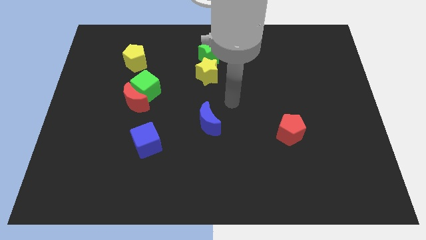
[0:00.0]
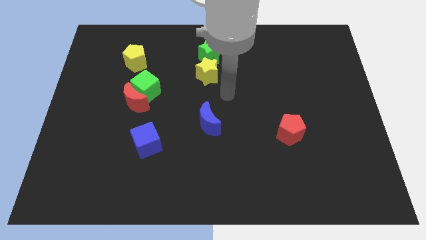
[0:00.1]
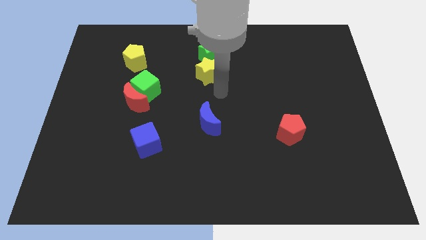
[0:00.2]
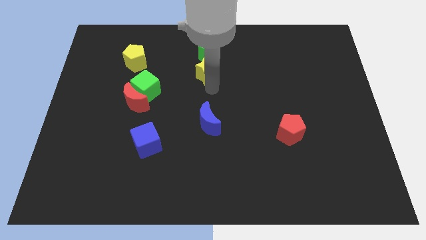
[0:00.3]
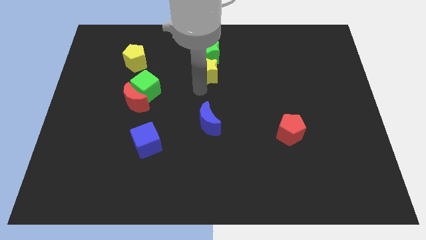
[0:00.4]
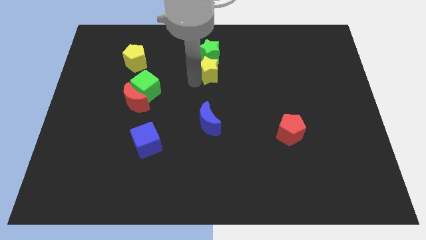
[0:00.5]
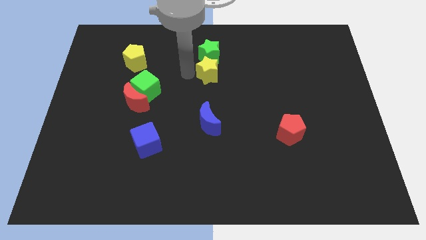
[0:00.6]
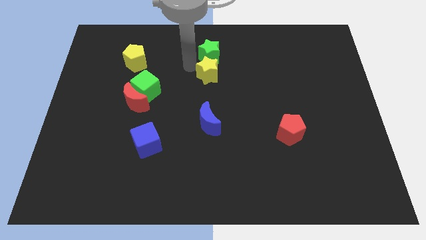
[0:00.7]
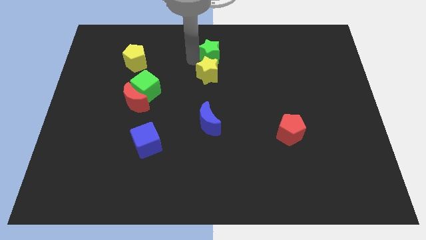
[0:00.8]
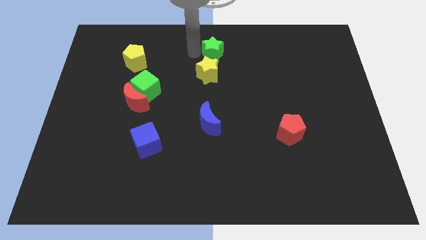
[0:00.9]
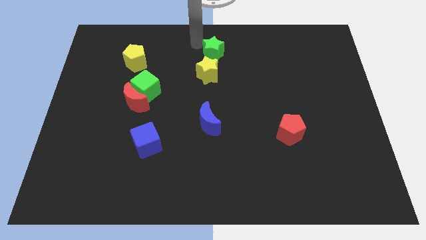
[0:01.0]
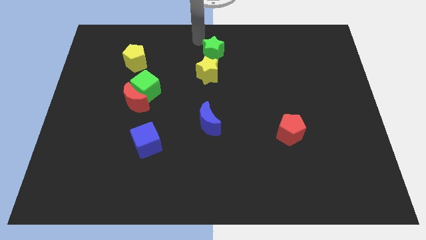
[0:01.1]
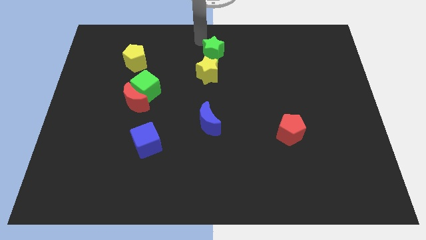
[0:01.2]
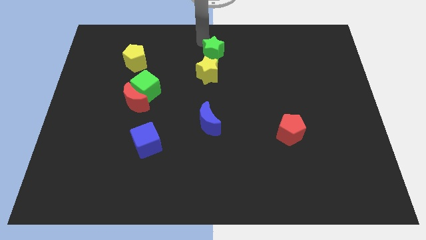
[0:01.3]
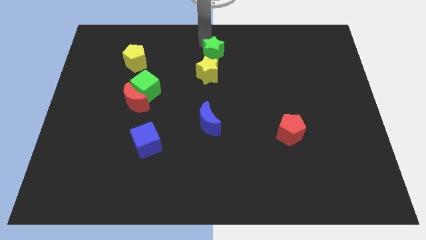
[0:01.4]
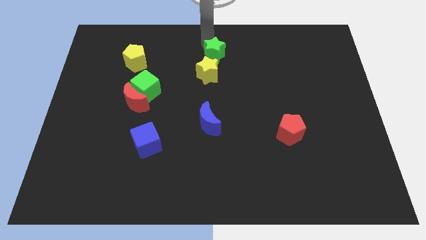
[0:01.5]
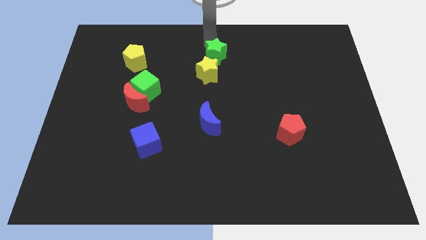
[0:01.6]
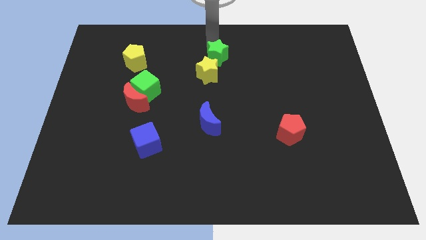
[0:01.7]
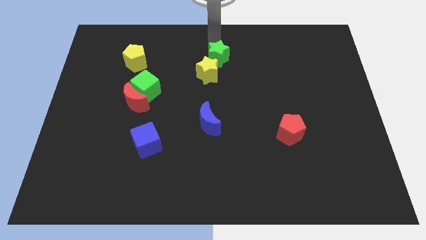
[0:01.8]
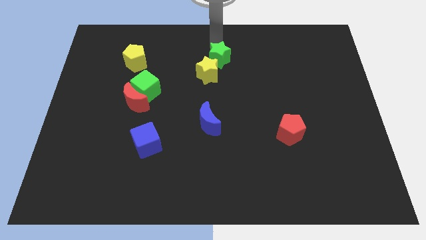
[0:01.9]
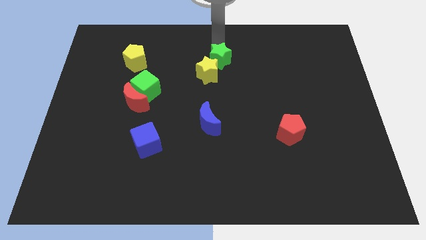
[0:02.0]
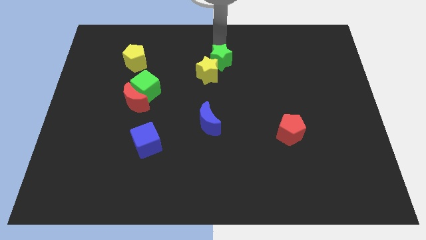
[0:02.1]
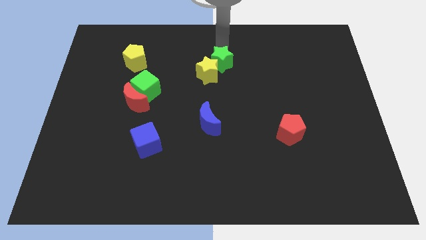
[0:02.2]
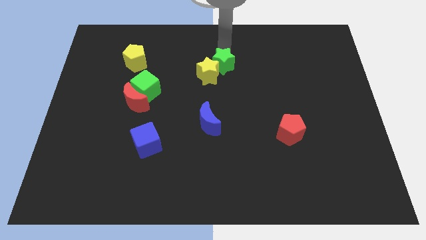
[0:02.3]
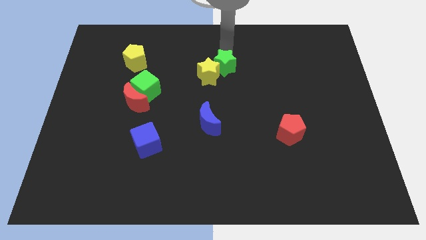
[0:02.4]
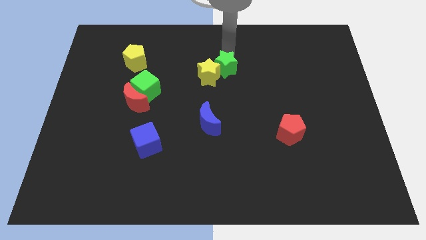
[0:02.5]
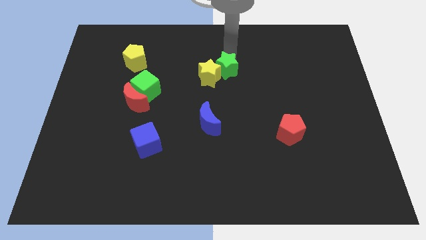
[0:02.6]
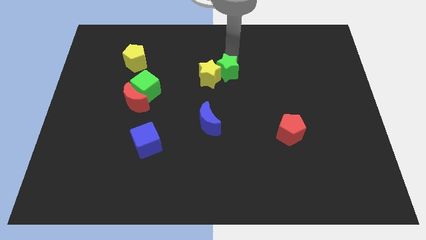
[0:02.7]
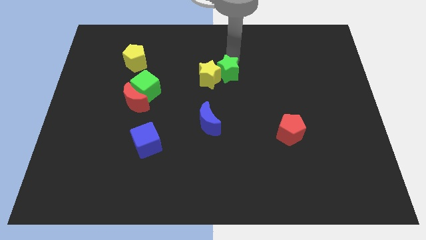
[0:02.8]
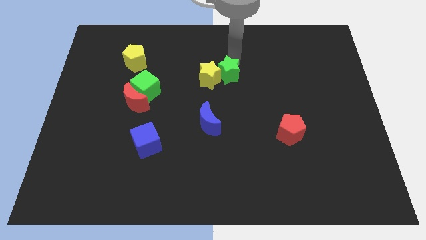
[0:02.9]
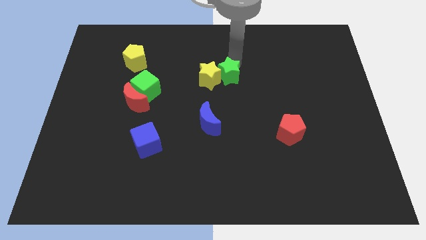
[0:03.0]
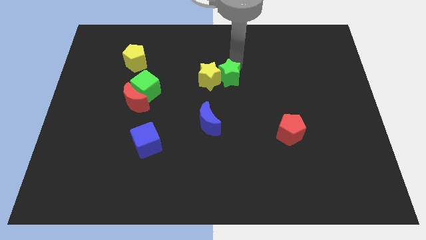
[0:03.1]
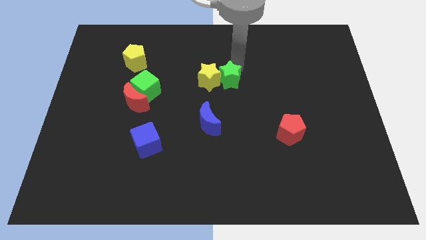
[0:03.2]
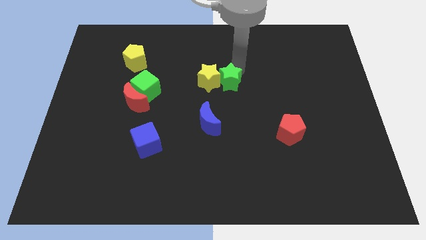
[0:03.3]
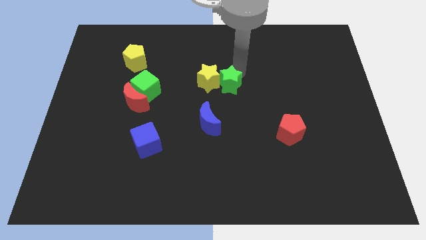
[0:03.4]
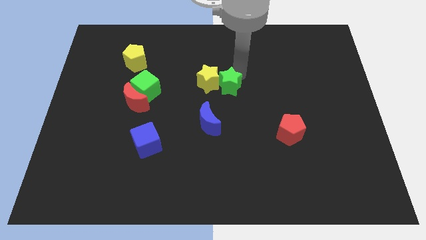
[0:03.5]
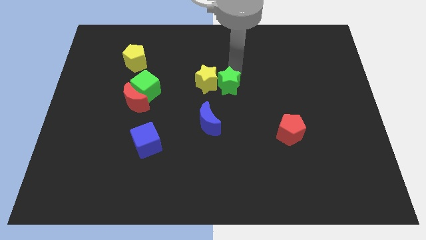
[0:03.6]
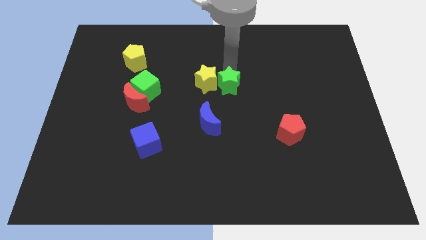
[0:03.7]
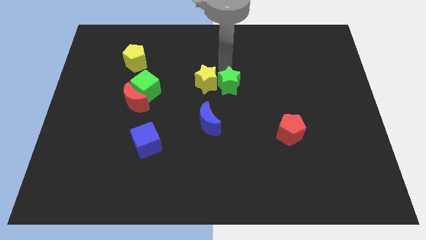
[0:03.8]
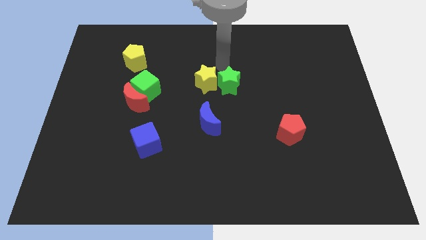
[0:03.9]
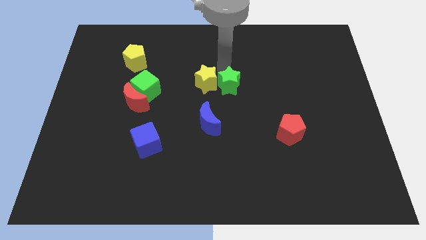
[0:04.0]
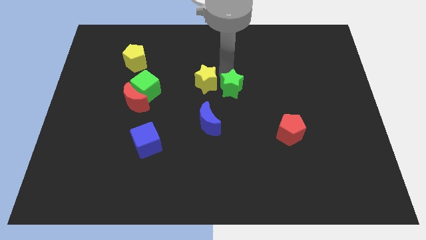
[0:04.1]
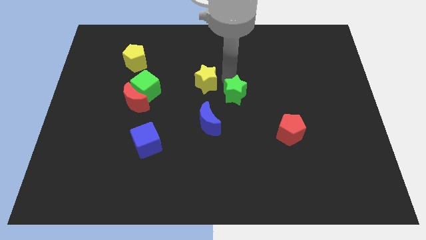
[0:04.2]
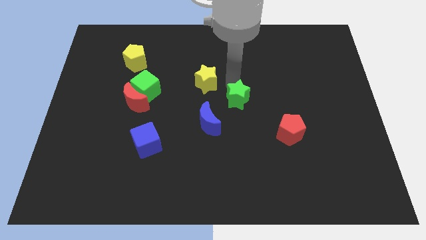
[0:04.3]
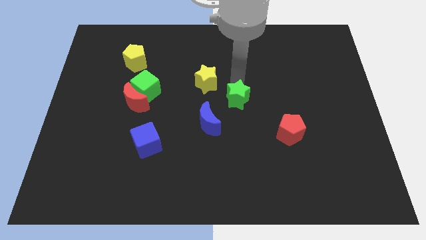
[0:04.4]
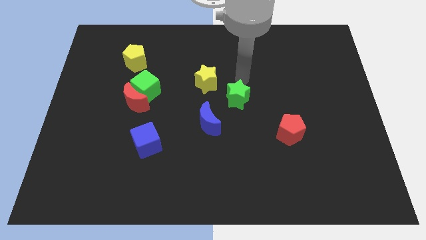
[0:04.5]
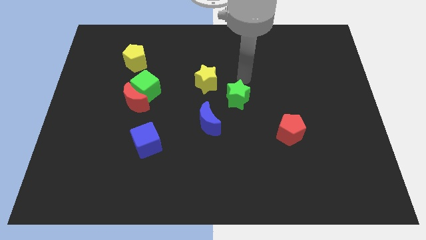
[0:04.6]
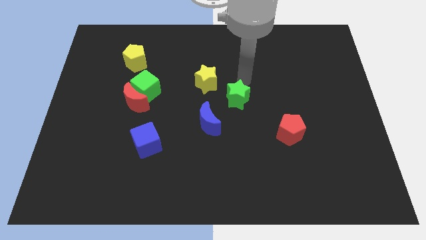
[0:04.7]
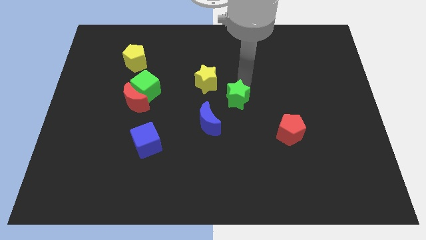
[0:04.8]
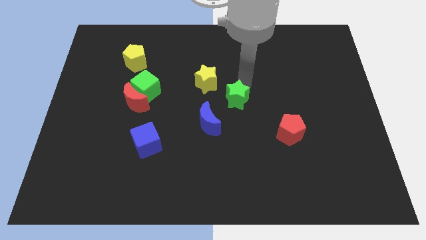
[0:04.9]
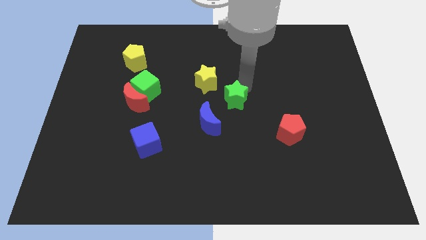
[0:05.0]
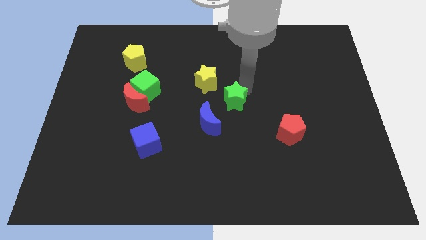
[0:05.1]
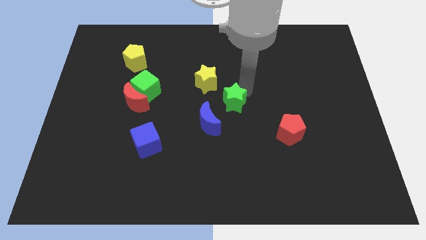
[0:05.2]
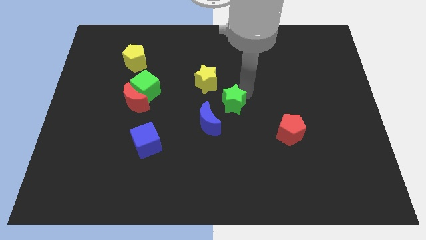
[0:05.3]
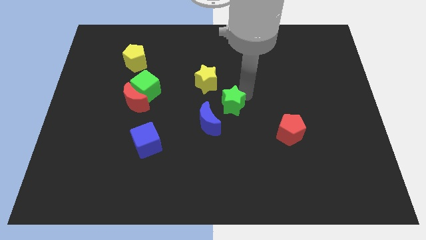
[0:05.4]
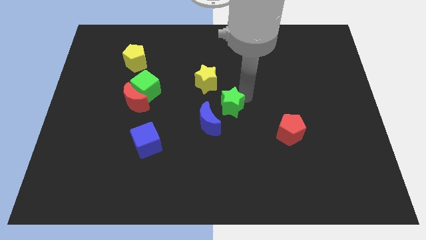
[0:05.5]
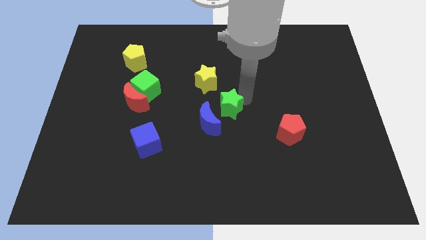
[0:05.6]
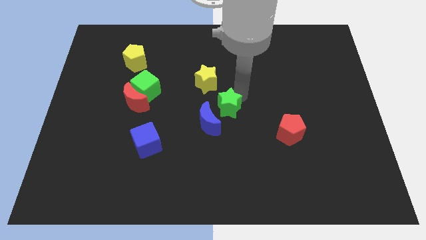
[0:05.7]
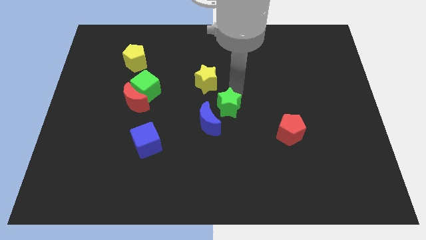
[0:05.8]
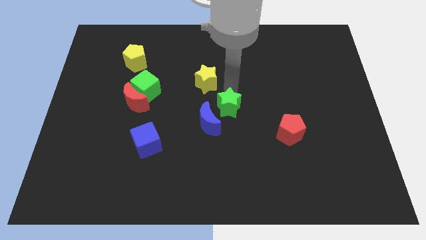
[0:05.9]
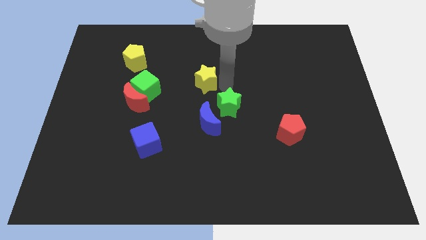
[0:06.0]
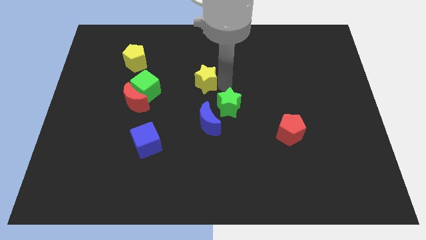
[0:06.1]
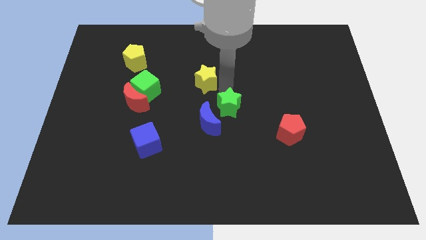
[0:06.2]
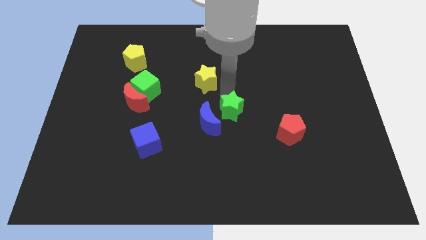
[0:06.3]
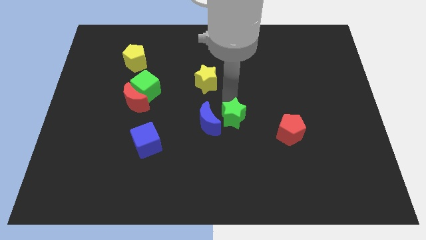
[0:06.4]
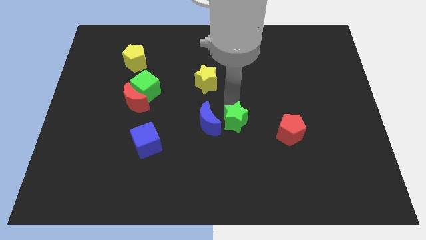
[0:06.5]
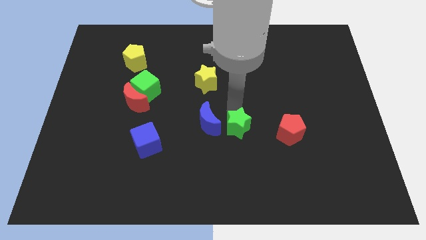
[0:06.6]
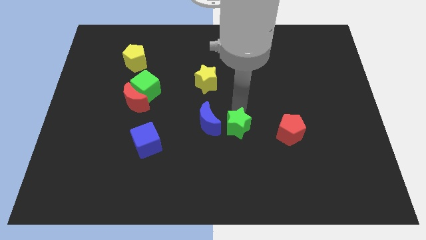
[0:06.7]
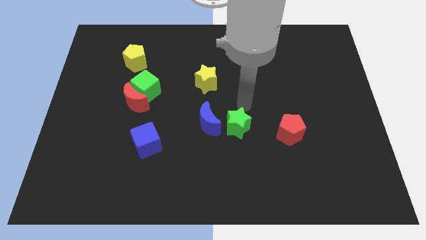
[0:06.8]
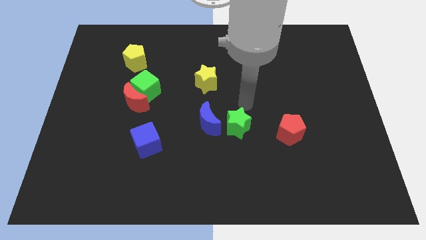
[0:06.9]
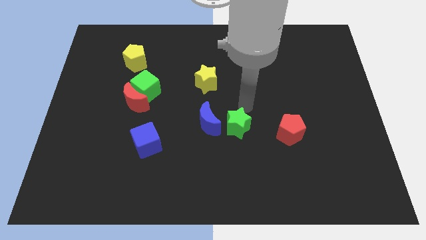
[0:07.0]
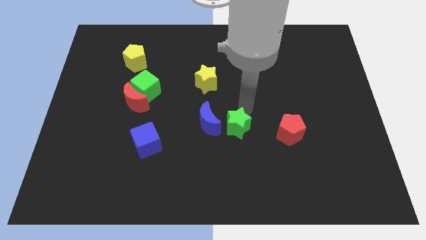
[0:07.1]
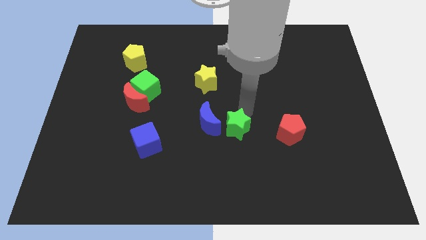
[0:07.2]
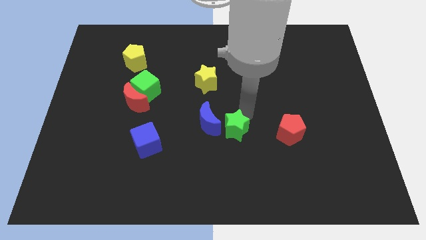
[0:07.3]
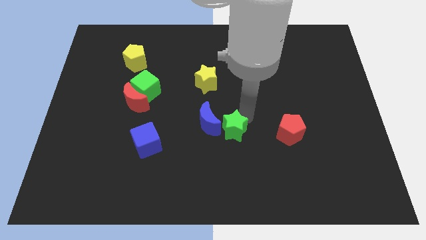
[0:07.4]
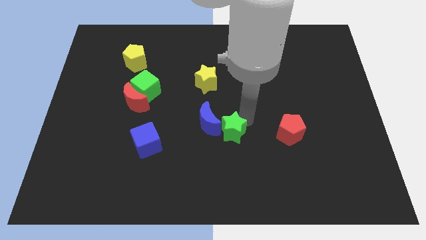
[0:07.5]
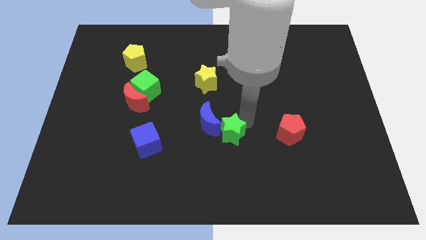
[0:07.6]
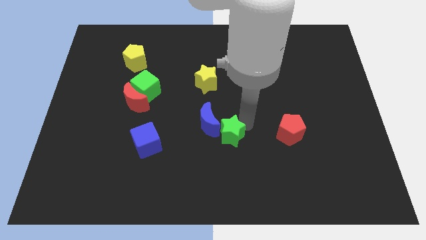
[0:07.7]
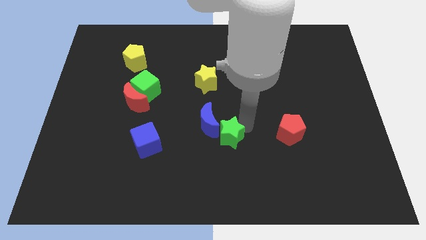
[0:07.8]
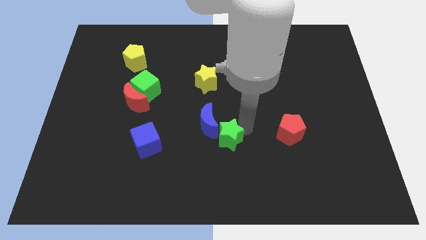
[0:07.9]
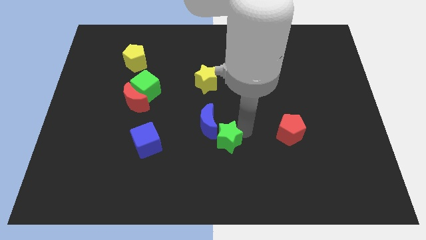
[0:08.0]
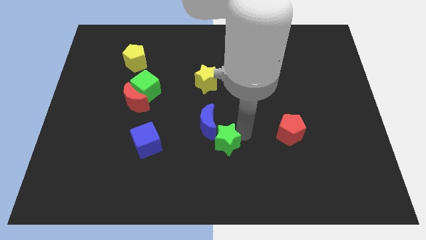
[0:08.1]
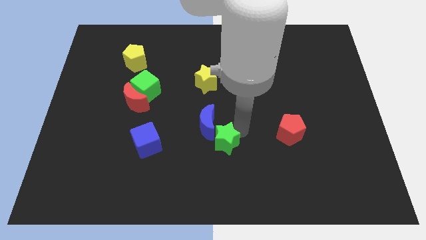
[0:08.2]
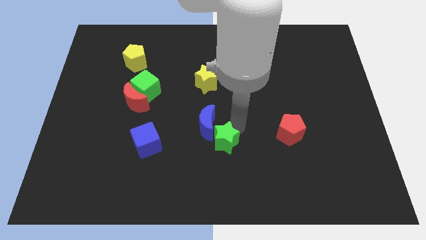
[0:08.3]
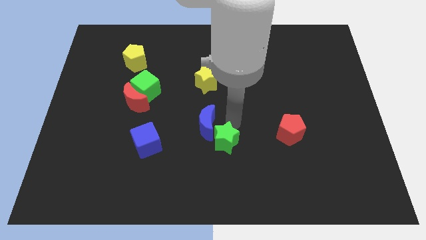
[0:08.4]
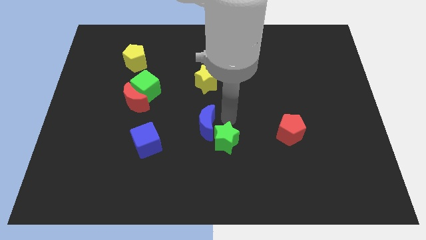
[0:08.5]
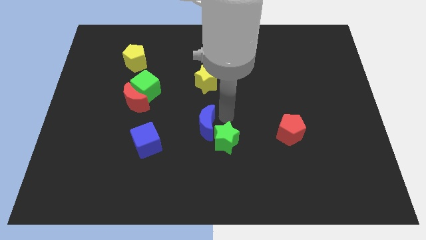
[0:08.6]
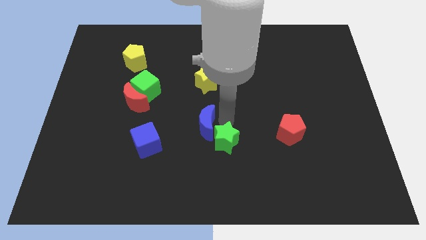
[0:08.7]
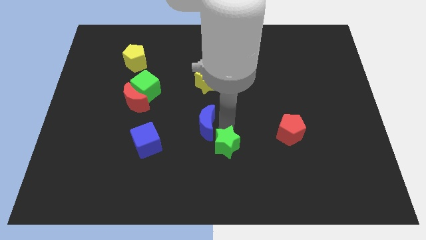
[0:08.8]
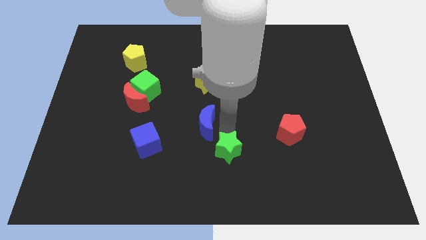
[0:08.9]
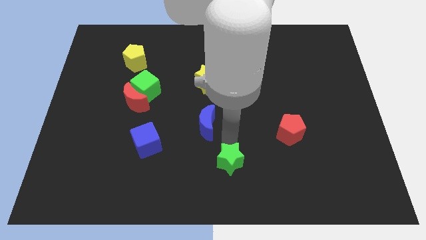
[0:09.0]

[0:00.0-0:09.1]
slide the green star to the bottom
